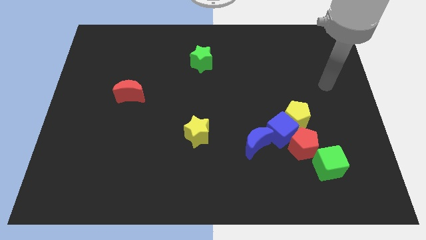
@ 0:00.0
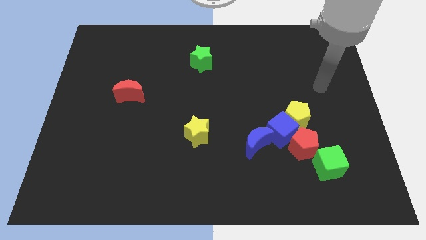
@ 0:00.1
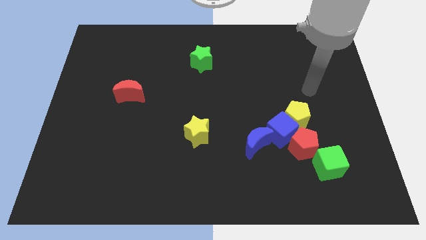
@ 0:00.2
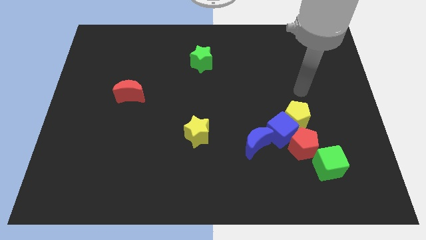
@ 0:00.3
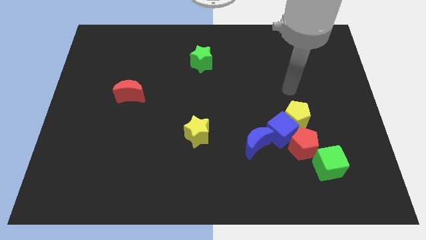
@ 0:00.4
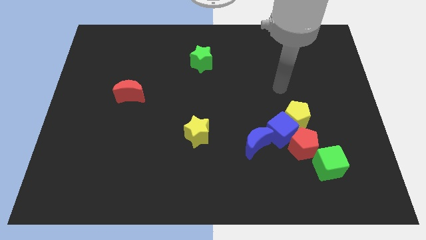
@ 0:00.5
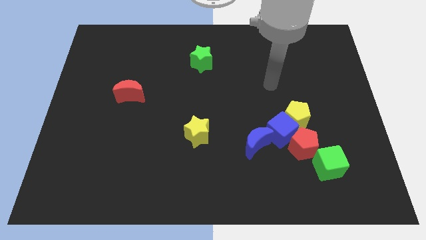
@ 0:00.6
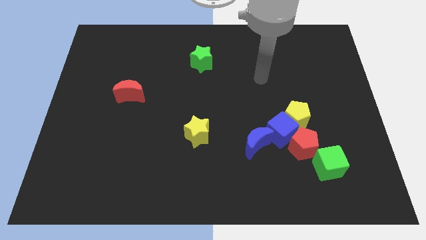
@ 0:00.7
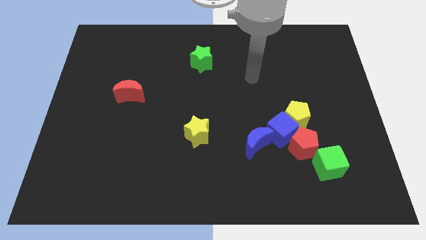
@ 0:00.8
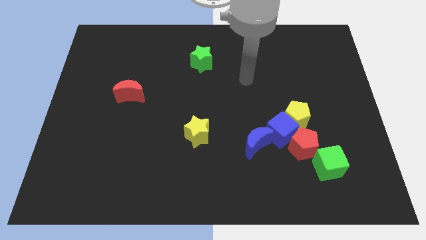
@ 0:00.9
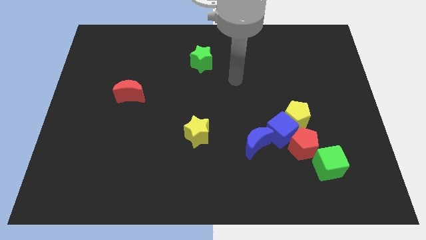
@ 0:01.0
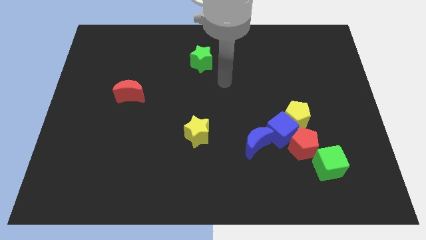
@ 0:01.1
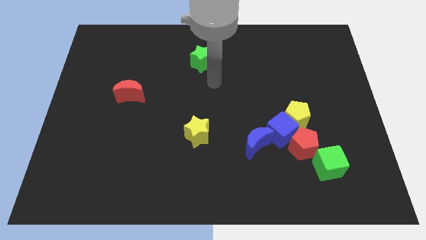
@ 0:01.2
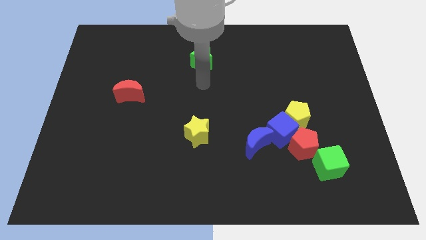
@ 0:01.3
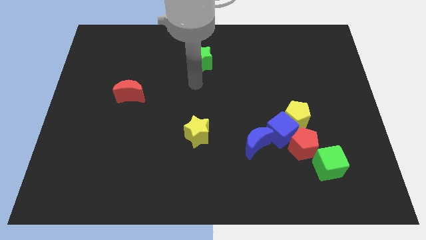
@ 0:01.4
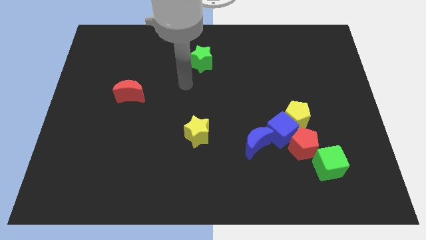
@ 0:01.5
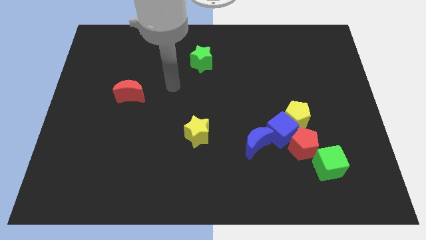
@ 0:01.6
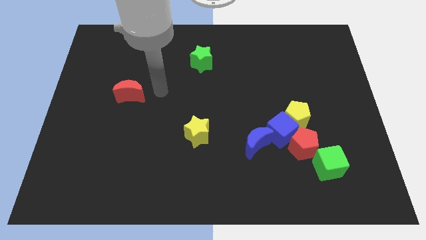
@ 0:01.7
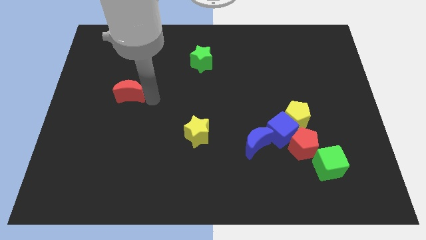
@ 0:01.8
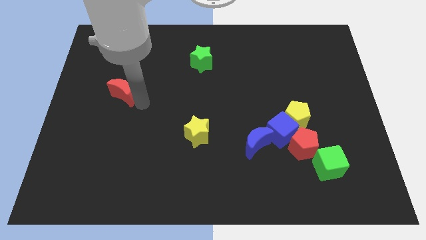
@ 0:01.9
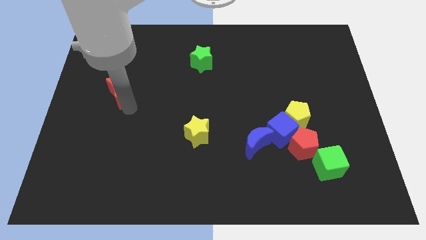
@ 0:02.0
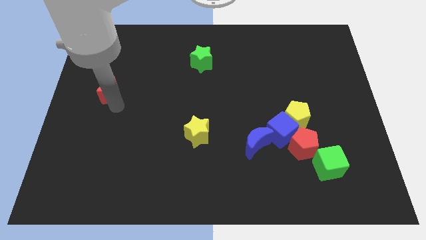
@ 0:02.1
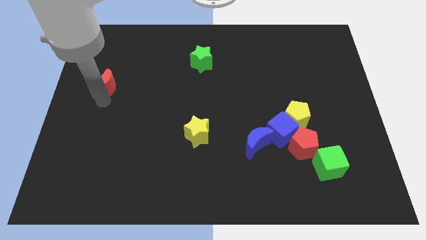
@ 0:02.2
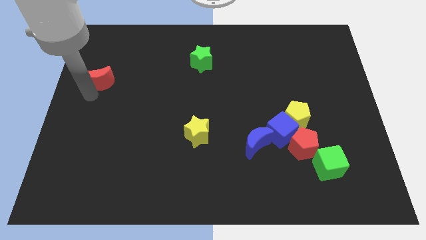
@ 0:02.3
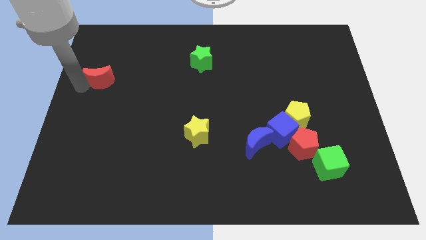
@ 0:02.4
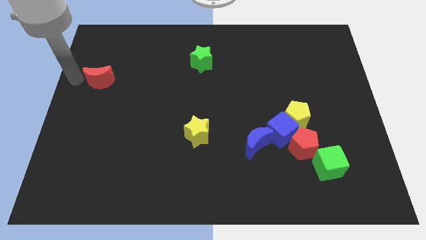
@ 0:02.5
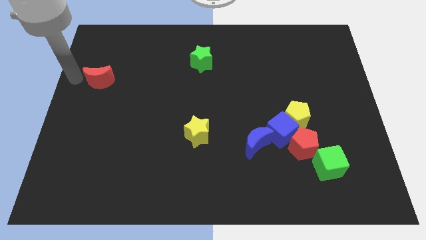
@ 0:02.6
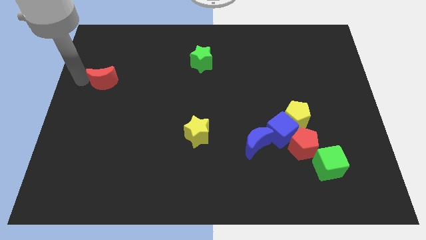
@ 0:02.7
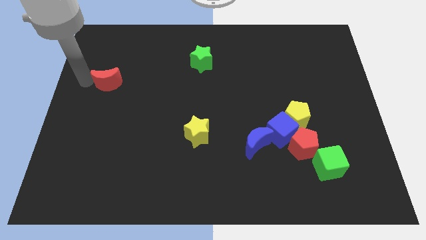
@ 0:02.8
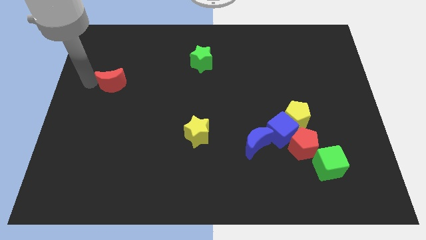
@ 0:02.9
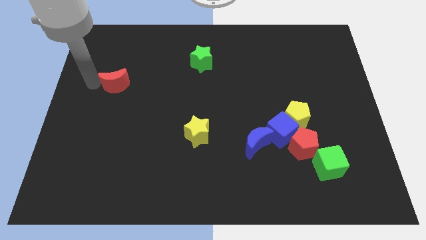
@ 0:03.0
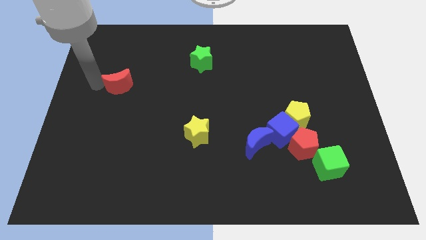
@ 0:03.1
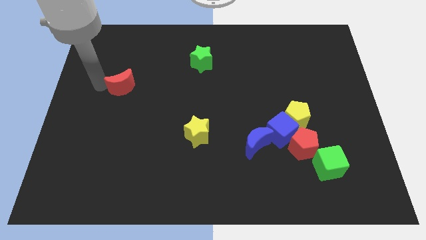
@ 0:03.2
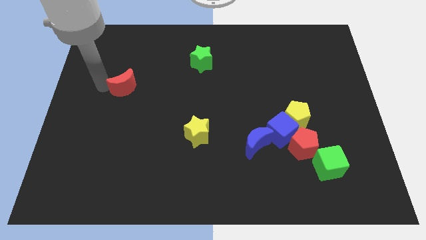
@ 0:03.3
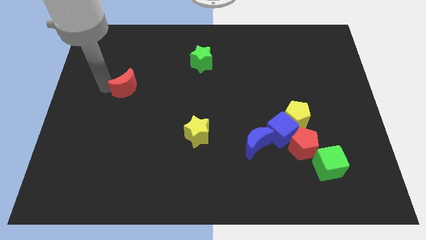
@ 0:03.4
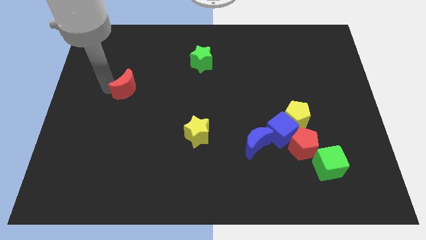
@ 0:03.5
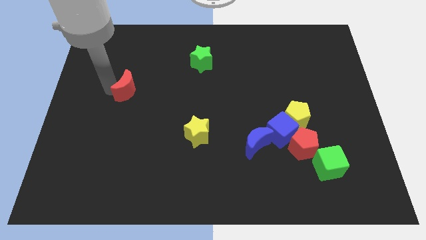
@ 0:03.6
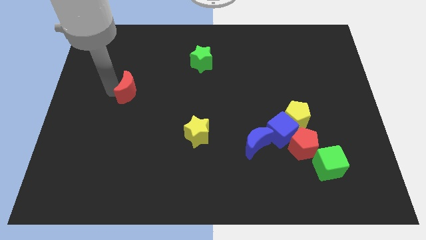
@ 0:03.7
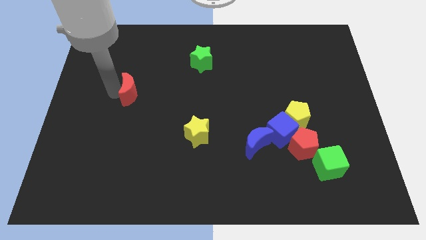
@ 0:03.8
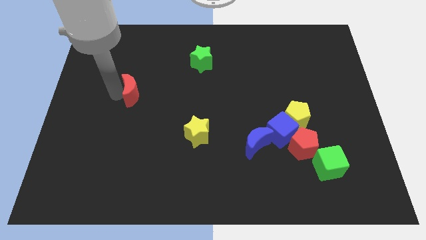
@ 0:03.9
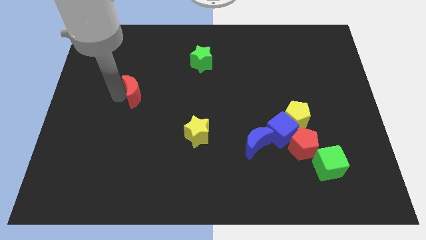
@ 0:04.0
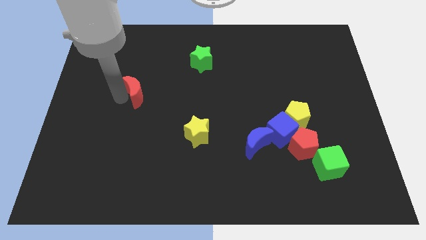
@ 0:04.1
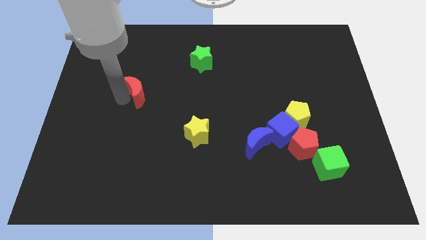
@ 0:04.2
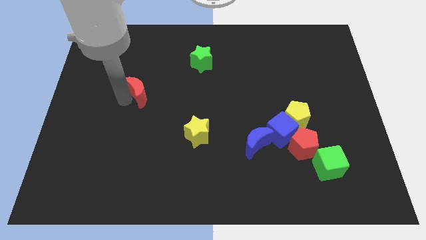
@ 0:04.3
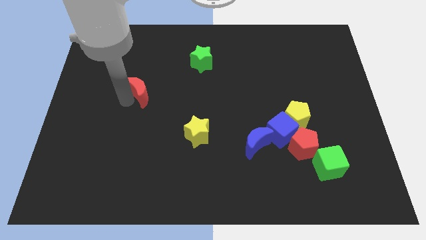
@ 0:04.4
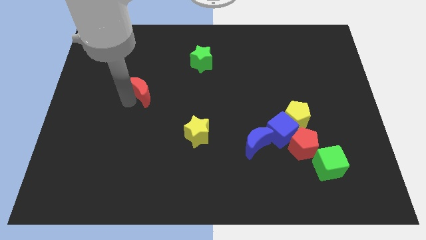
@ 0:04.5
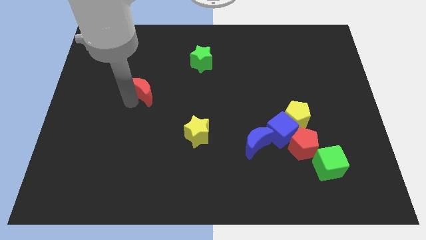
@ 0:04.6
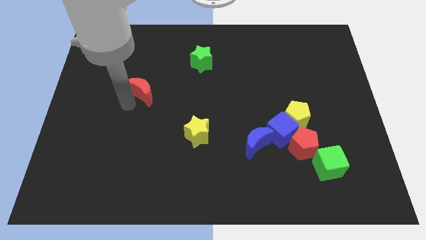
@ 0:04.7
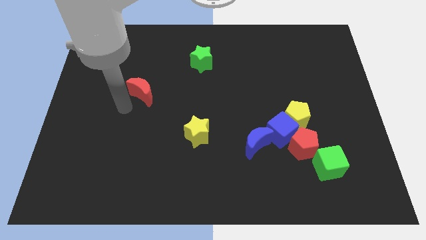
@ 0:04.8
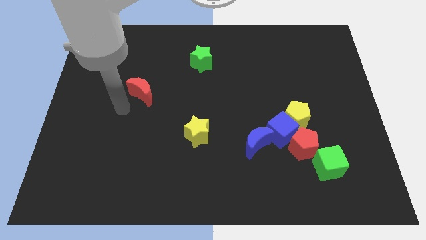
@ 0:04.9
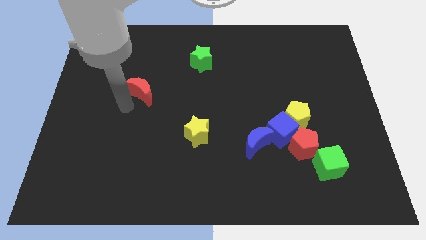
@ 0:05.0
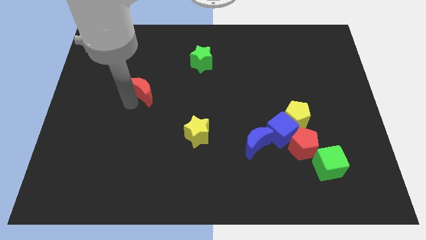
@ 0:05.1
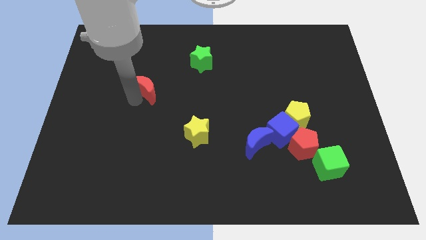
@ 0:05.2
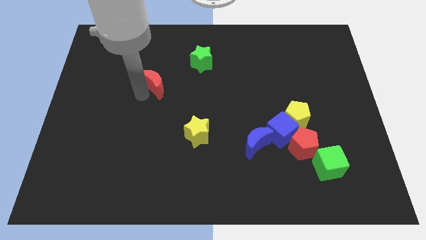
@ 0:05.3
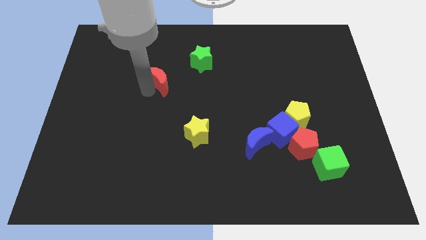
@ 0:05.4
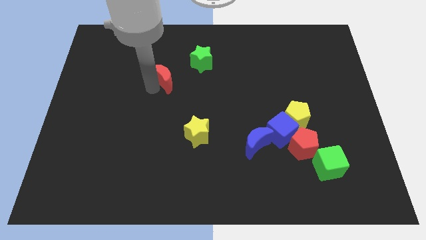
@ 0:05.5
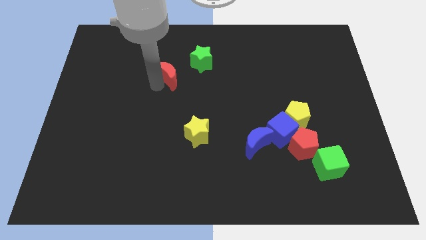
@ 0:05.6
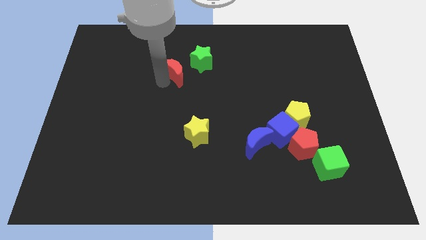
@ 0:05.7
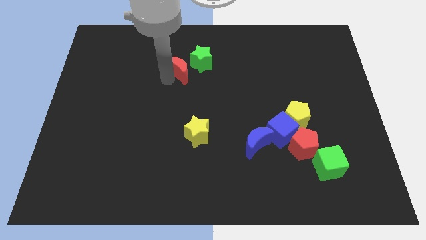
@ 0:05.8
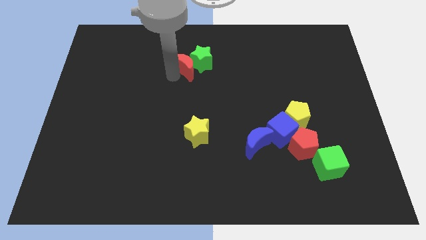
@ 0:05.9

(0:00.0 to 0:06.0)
move the red moon next to the green star

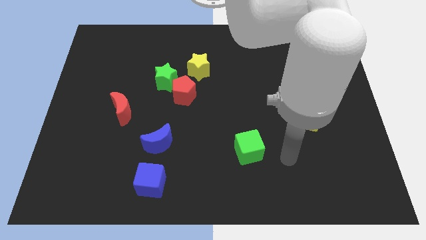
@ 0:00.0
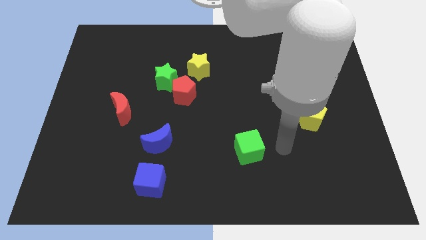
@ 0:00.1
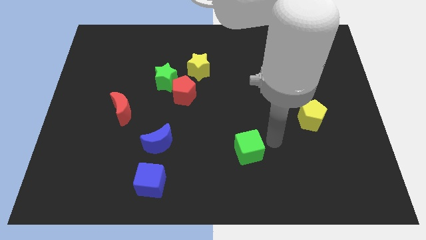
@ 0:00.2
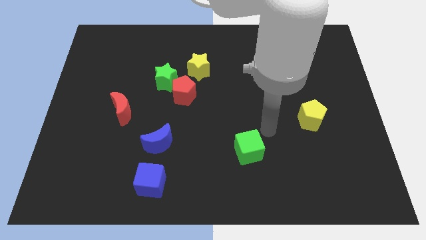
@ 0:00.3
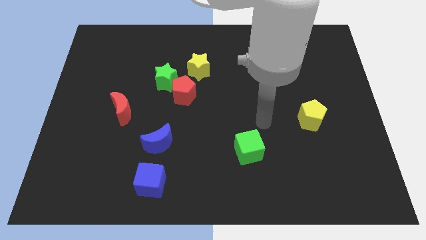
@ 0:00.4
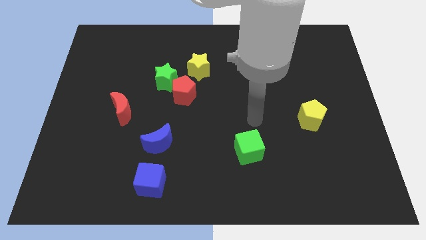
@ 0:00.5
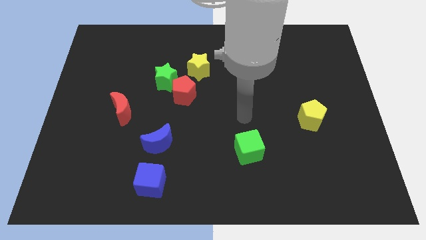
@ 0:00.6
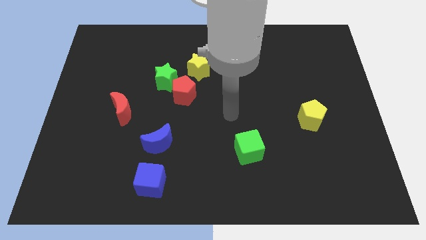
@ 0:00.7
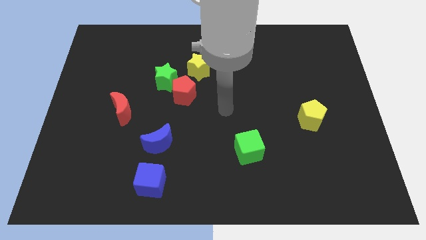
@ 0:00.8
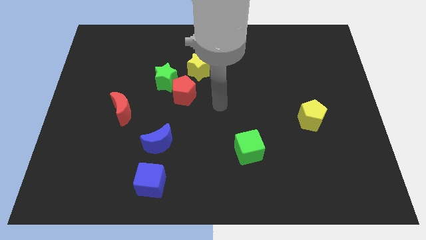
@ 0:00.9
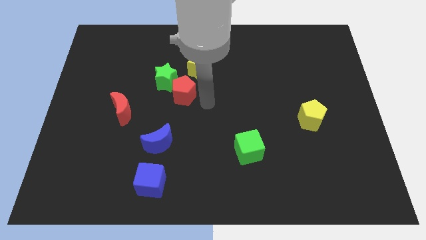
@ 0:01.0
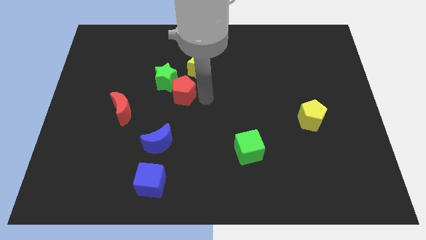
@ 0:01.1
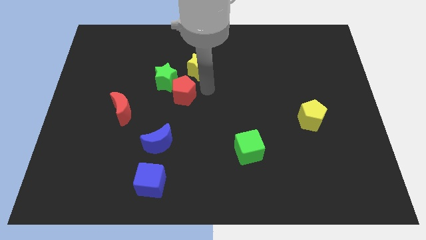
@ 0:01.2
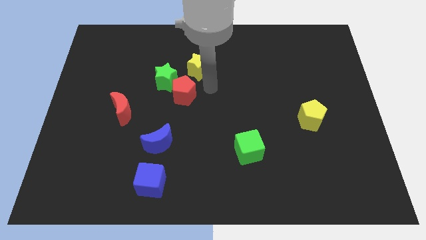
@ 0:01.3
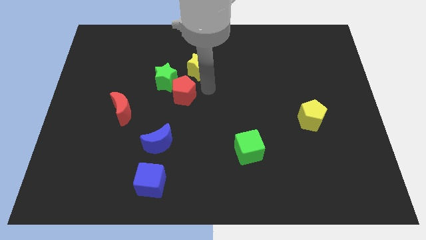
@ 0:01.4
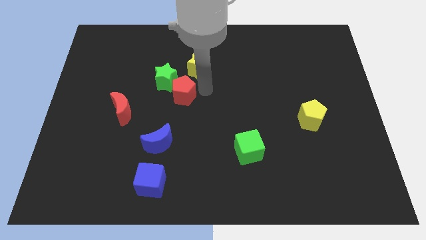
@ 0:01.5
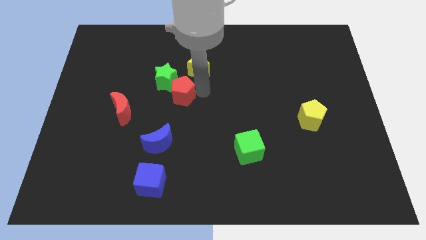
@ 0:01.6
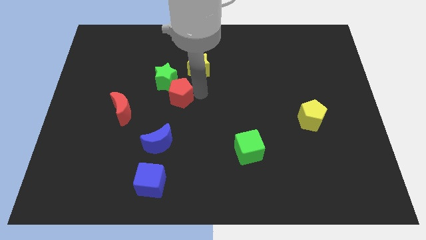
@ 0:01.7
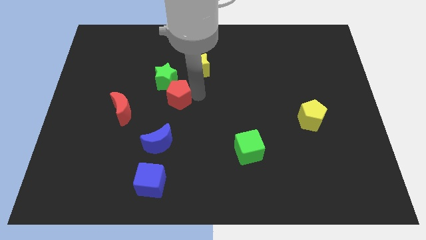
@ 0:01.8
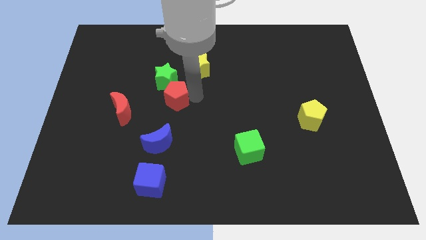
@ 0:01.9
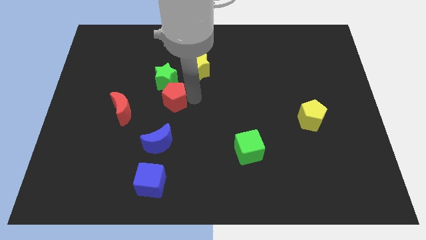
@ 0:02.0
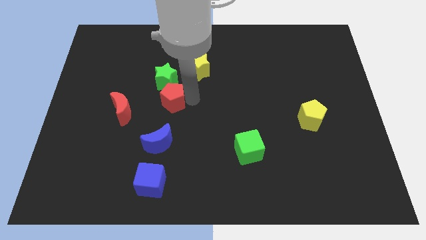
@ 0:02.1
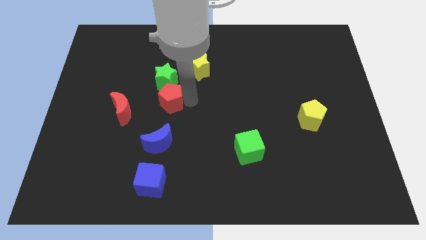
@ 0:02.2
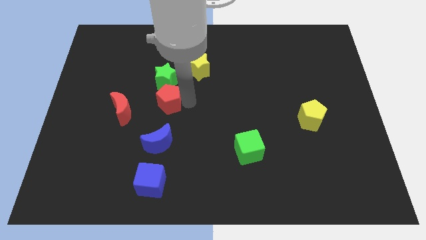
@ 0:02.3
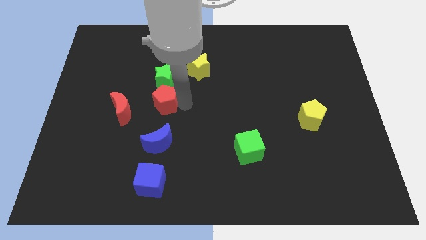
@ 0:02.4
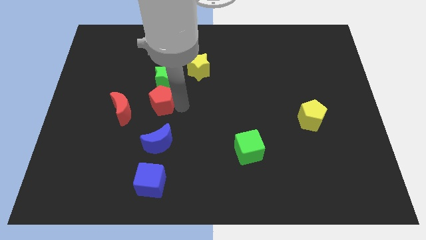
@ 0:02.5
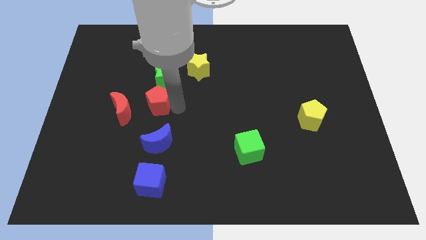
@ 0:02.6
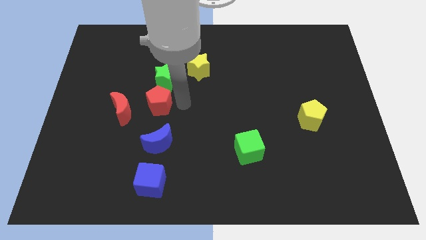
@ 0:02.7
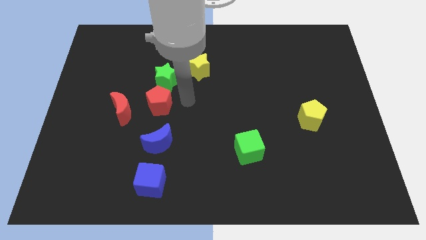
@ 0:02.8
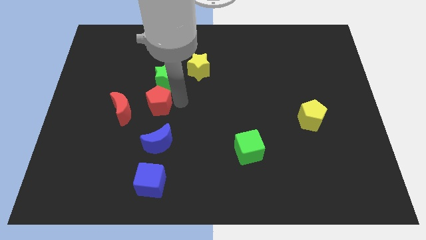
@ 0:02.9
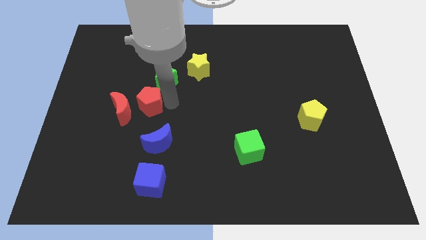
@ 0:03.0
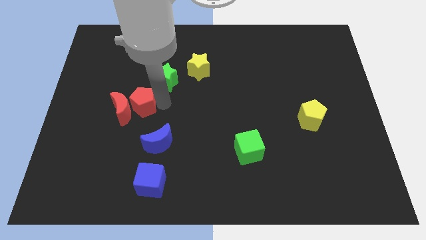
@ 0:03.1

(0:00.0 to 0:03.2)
push the red pentagon towards the red moon
